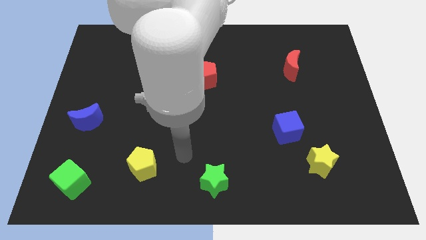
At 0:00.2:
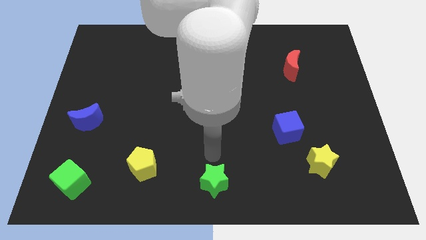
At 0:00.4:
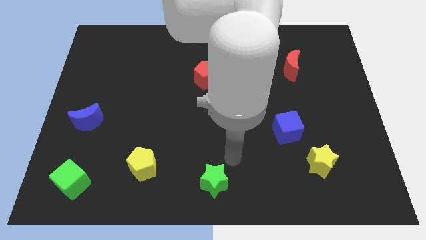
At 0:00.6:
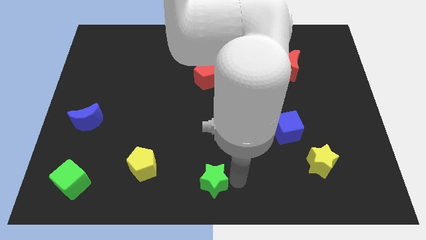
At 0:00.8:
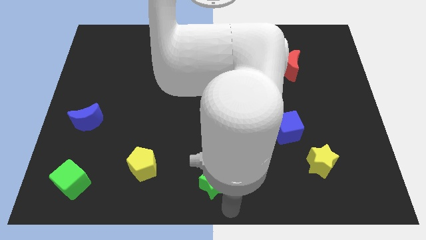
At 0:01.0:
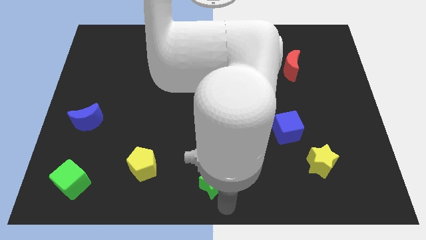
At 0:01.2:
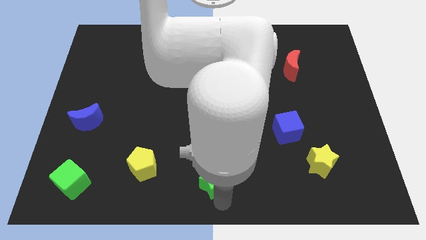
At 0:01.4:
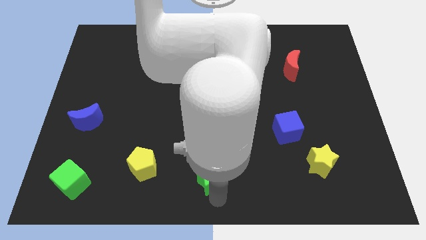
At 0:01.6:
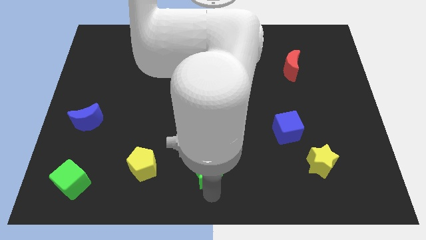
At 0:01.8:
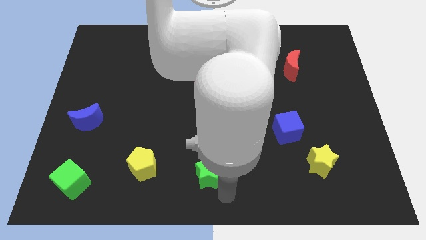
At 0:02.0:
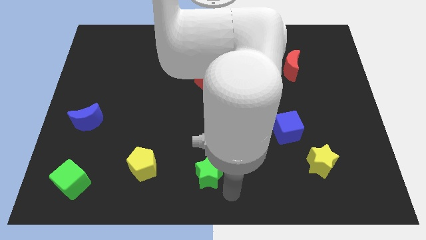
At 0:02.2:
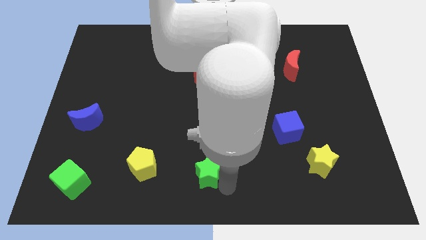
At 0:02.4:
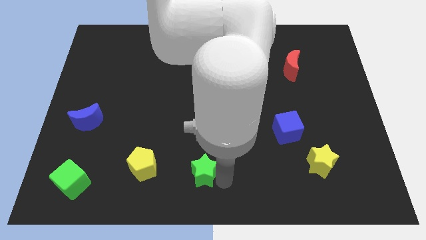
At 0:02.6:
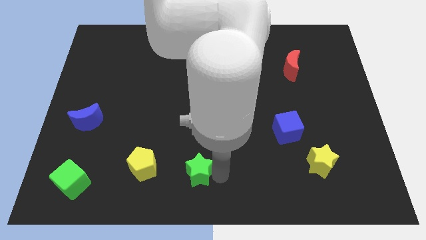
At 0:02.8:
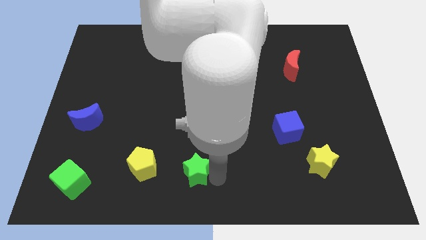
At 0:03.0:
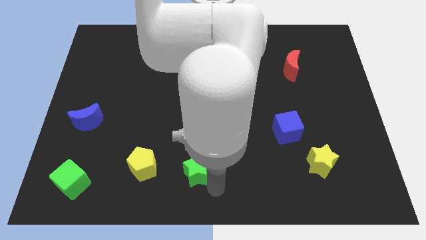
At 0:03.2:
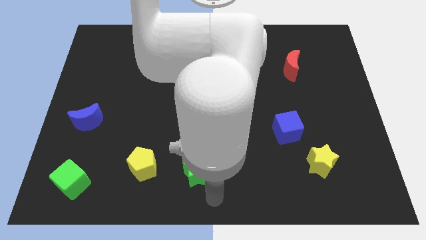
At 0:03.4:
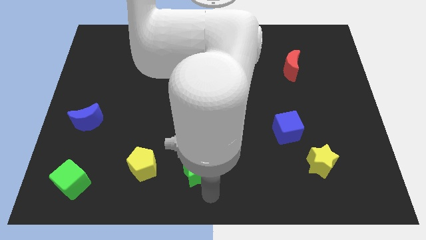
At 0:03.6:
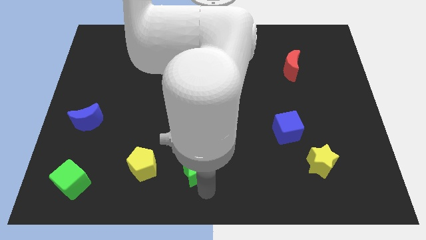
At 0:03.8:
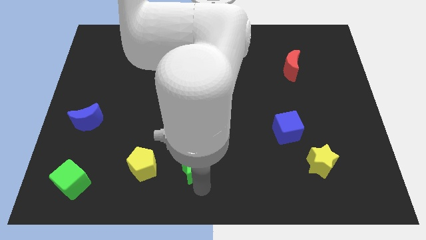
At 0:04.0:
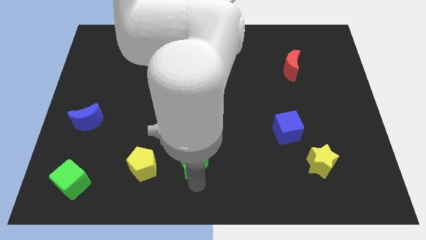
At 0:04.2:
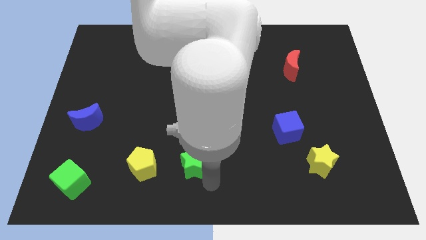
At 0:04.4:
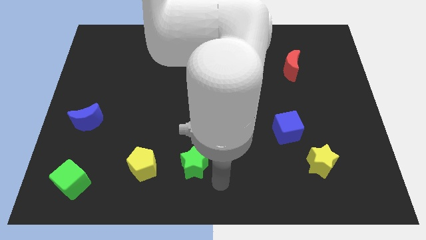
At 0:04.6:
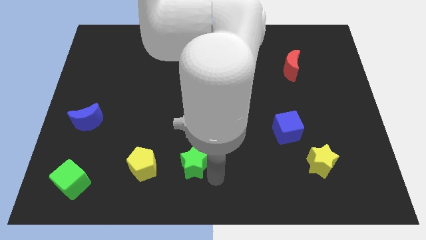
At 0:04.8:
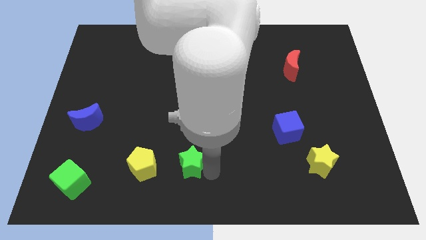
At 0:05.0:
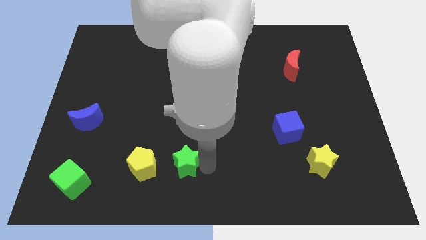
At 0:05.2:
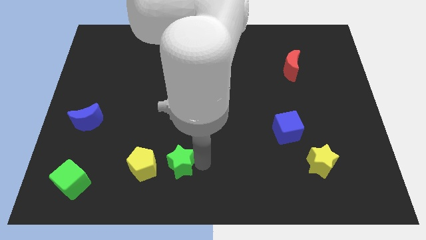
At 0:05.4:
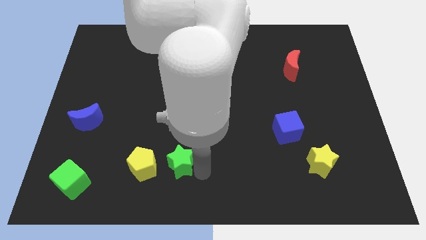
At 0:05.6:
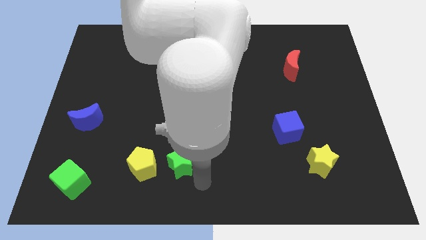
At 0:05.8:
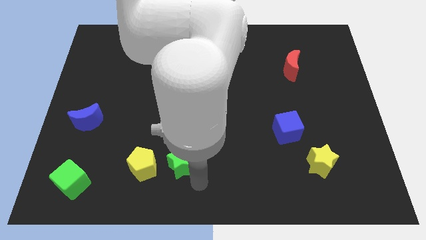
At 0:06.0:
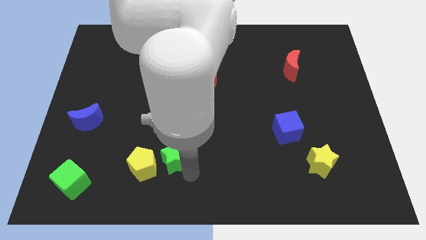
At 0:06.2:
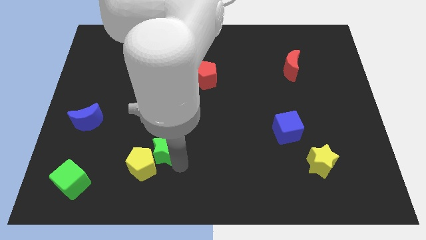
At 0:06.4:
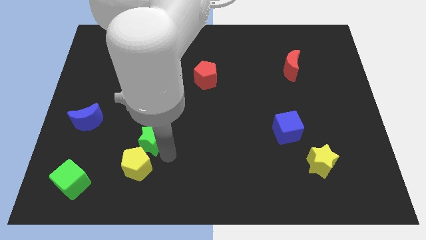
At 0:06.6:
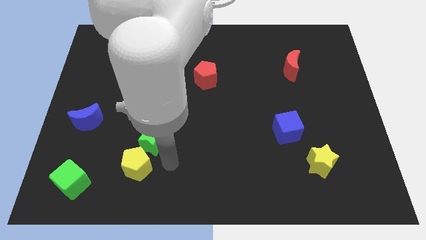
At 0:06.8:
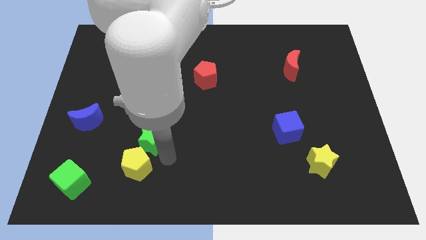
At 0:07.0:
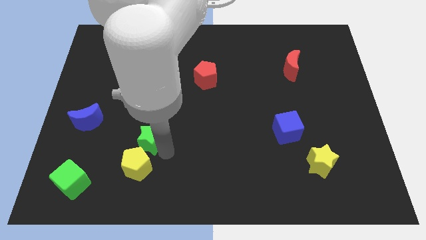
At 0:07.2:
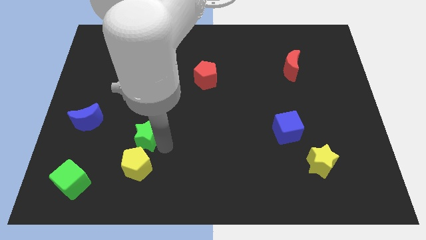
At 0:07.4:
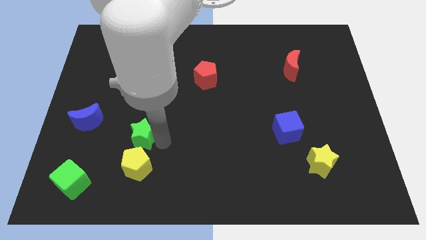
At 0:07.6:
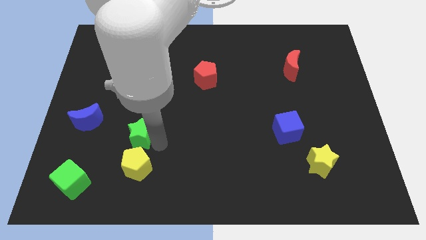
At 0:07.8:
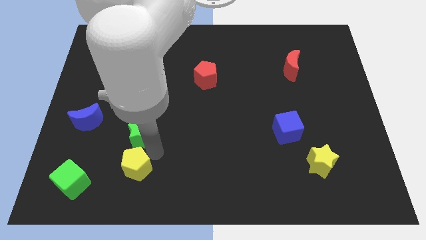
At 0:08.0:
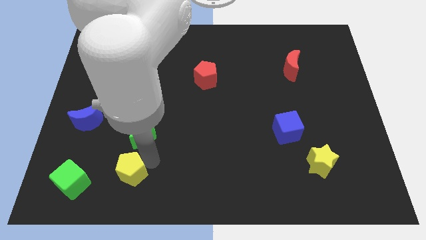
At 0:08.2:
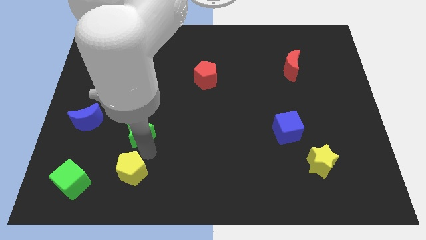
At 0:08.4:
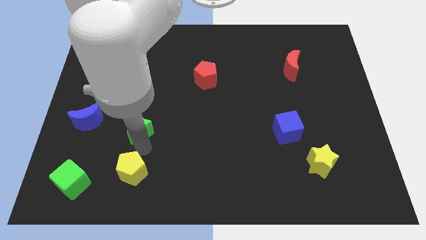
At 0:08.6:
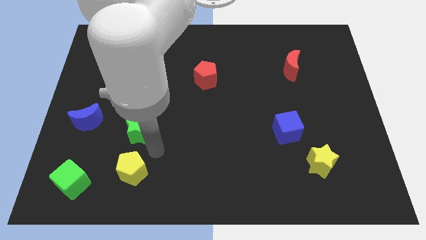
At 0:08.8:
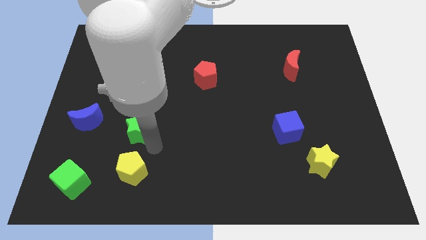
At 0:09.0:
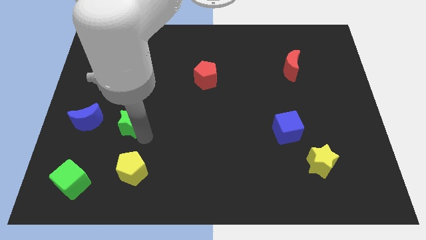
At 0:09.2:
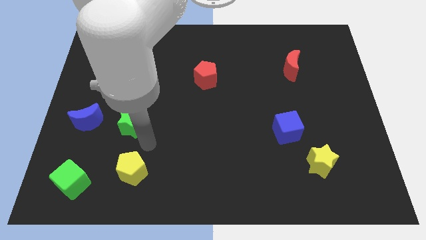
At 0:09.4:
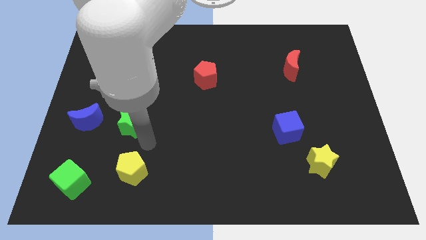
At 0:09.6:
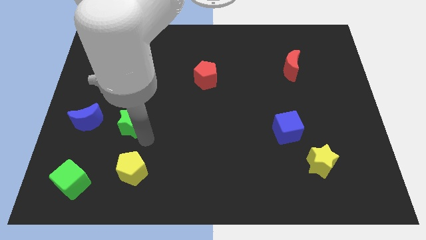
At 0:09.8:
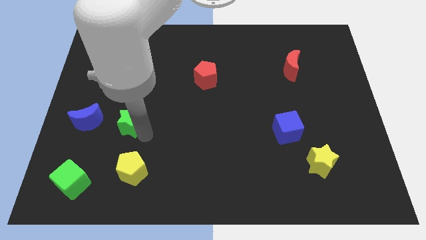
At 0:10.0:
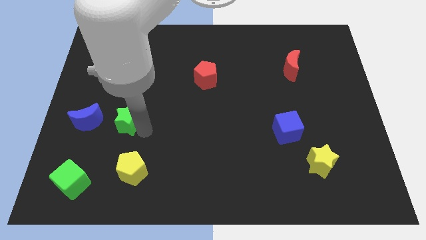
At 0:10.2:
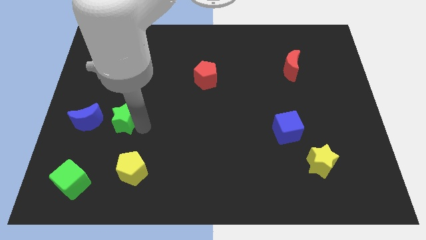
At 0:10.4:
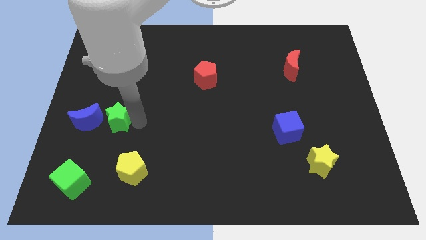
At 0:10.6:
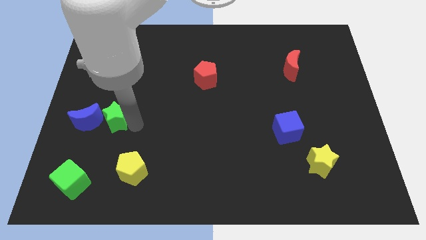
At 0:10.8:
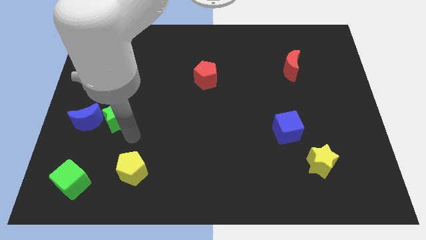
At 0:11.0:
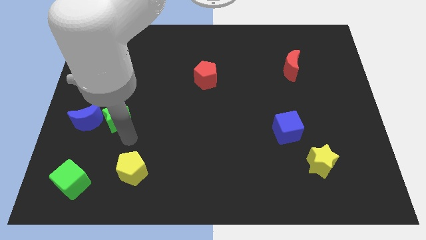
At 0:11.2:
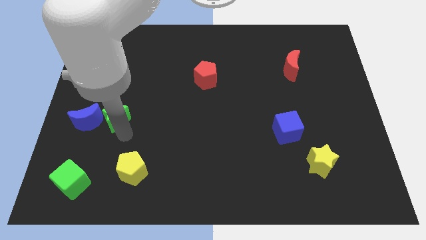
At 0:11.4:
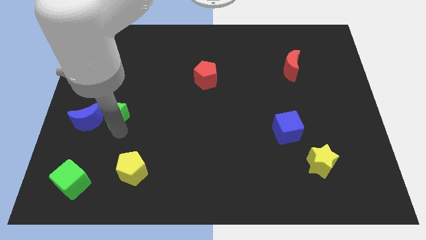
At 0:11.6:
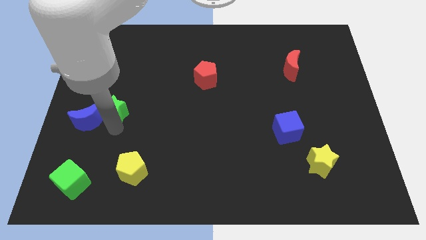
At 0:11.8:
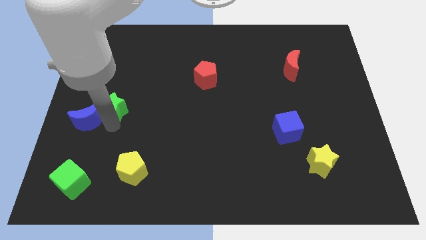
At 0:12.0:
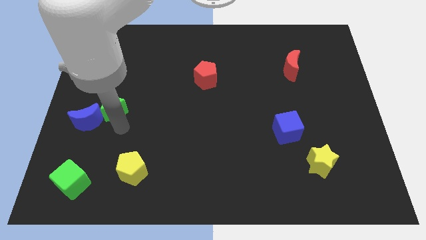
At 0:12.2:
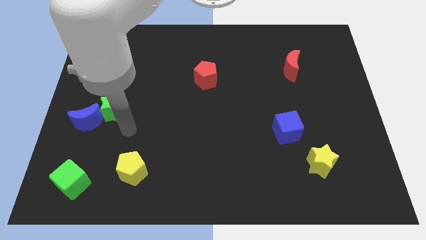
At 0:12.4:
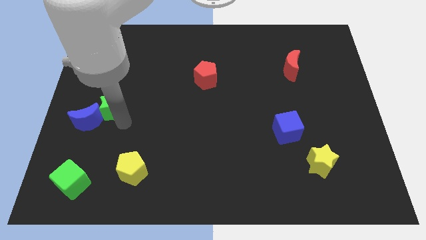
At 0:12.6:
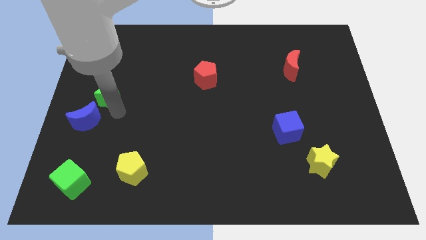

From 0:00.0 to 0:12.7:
push the green star to the top of the blue moon
